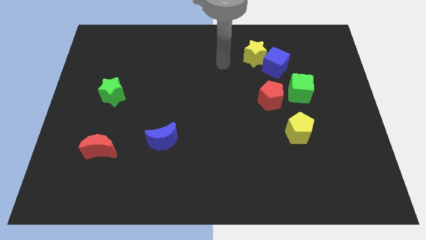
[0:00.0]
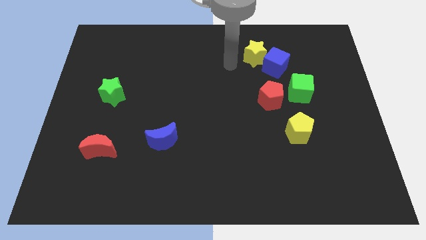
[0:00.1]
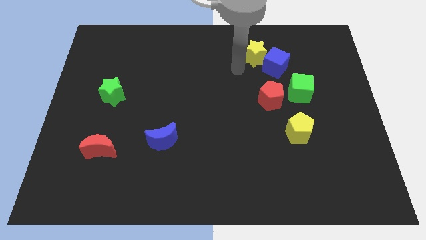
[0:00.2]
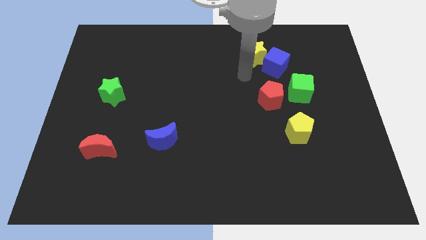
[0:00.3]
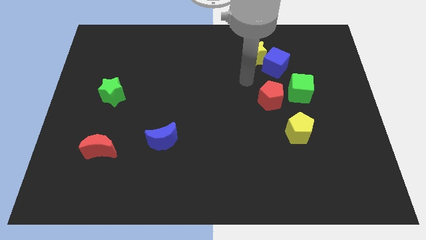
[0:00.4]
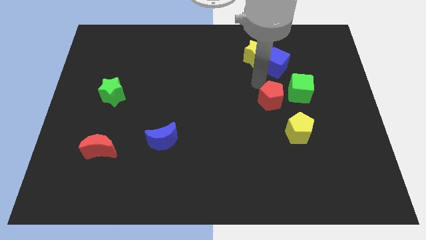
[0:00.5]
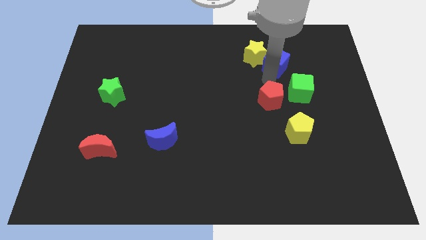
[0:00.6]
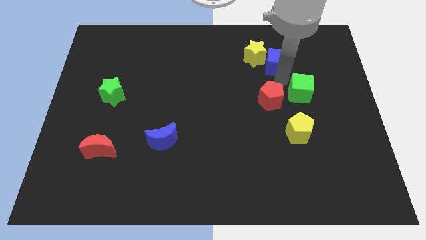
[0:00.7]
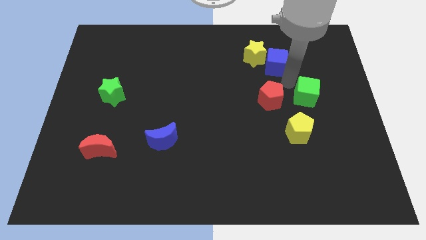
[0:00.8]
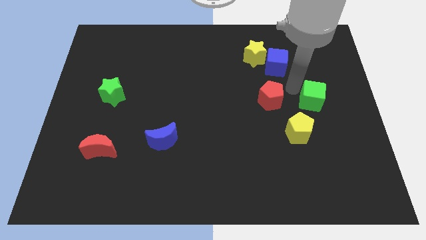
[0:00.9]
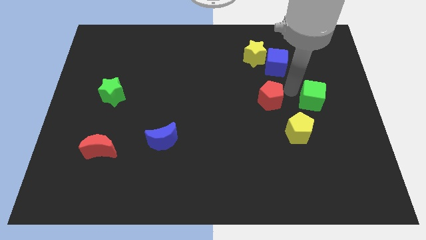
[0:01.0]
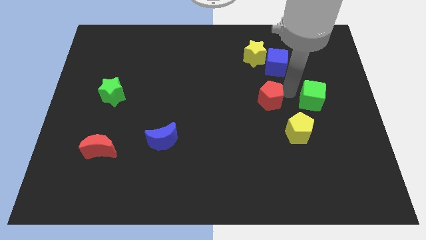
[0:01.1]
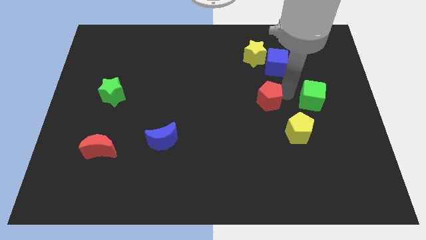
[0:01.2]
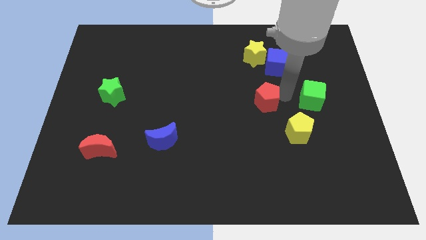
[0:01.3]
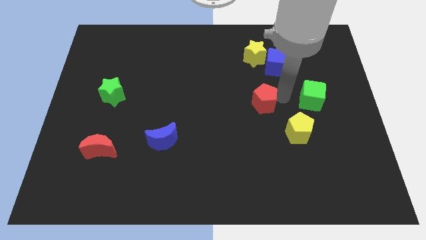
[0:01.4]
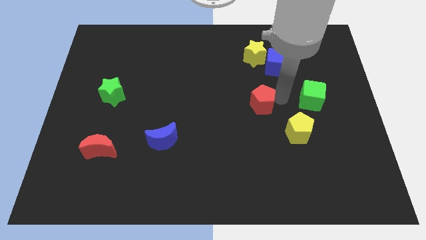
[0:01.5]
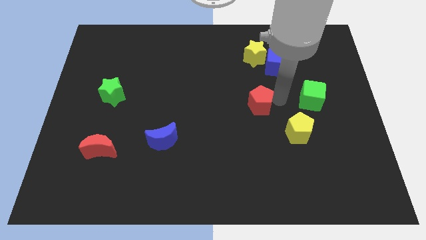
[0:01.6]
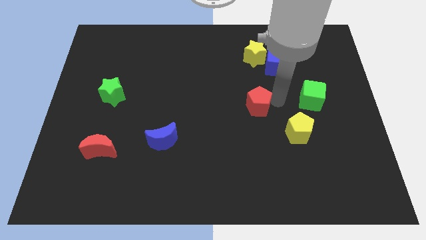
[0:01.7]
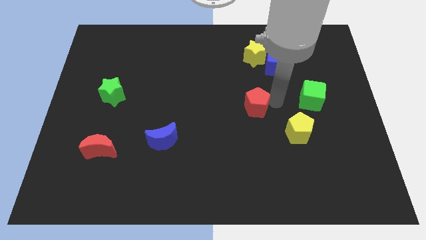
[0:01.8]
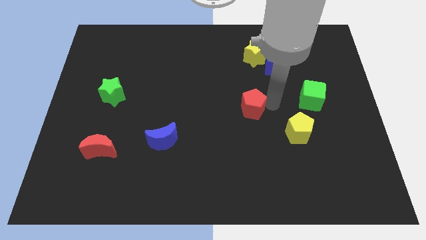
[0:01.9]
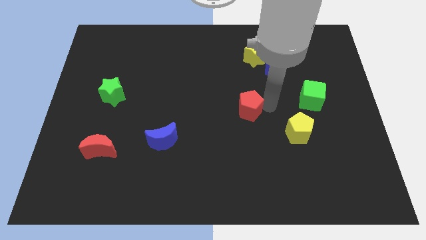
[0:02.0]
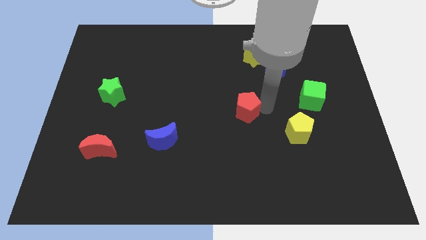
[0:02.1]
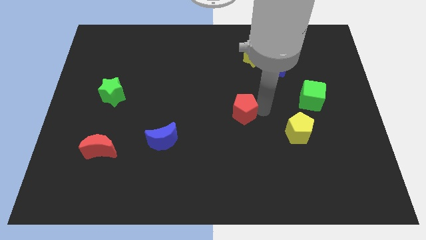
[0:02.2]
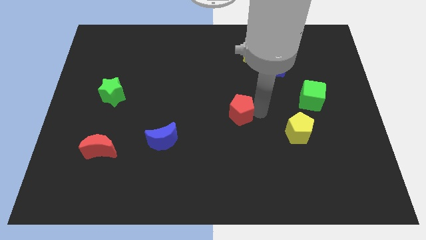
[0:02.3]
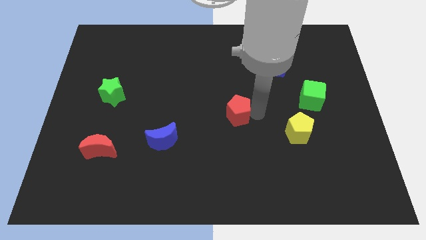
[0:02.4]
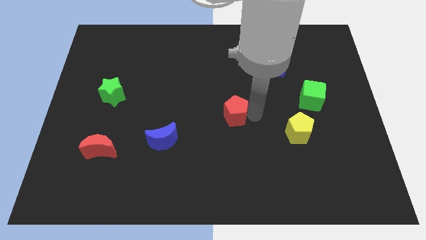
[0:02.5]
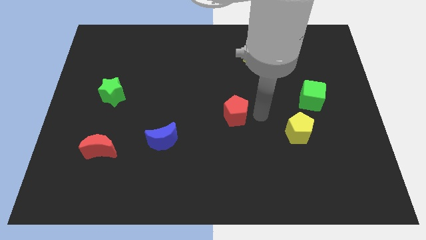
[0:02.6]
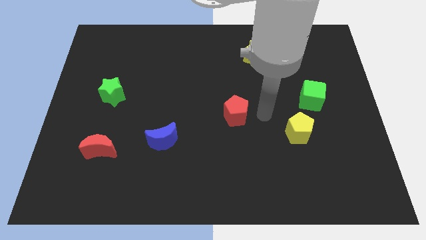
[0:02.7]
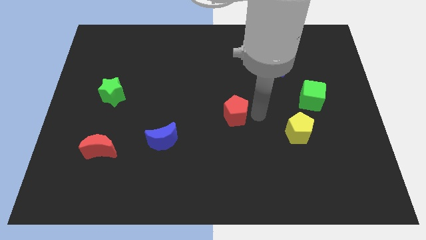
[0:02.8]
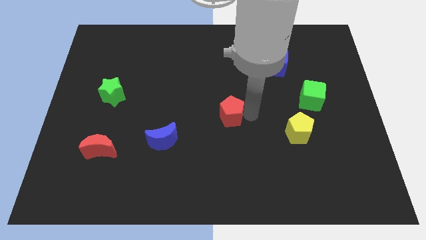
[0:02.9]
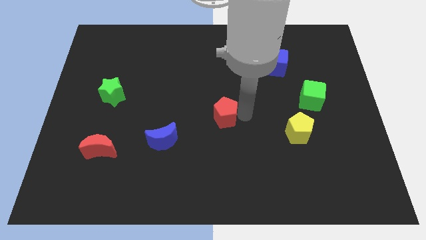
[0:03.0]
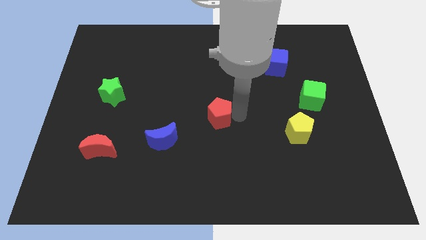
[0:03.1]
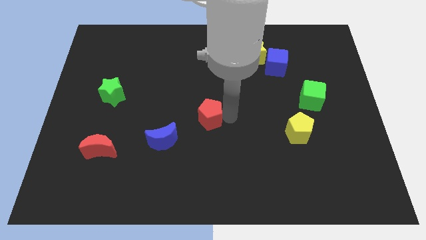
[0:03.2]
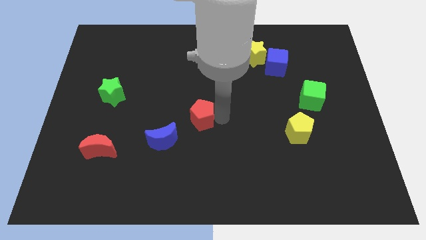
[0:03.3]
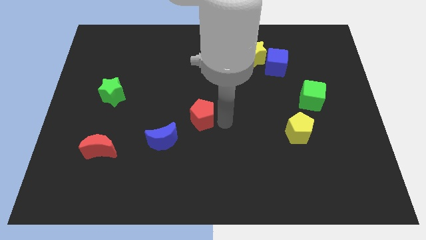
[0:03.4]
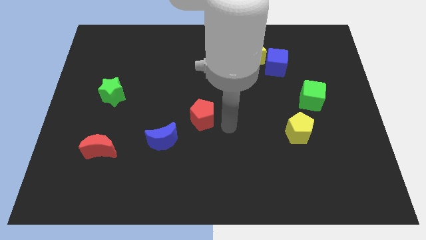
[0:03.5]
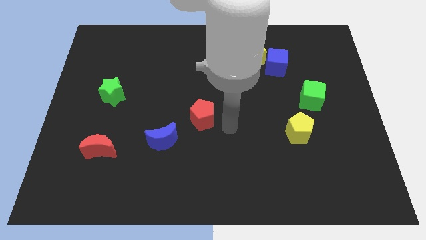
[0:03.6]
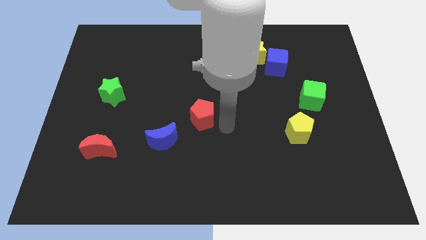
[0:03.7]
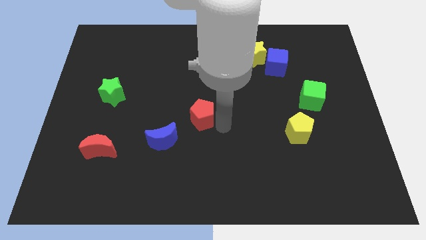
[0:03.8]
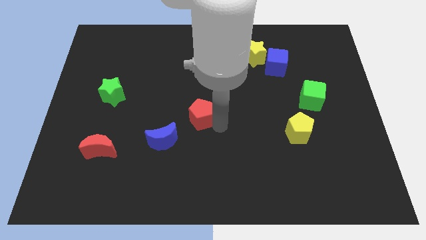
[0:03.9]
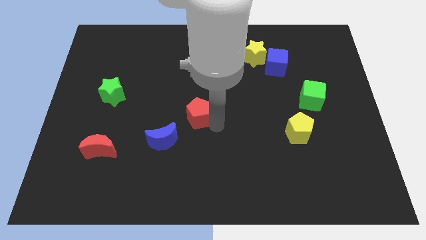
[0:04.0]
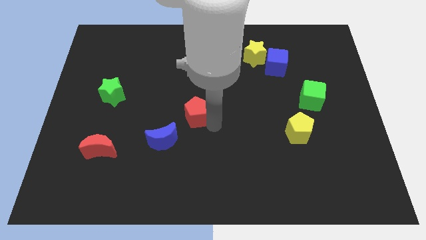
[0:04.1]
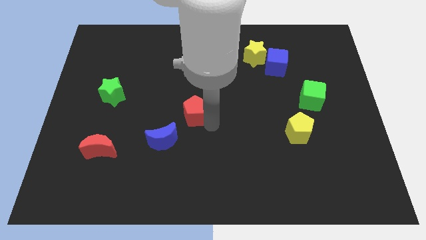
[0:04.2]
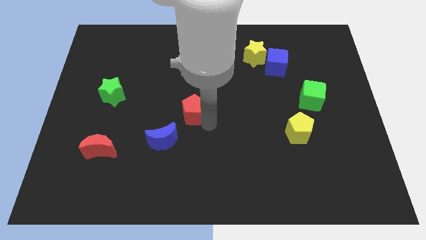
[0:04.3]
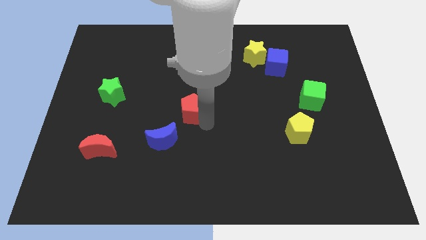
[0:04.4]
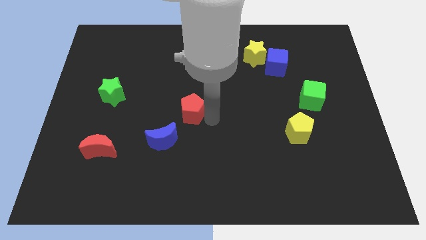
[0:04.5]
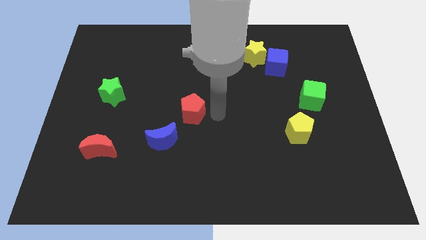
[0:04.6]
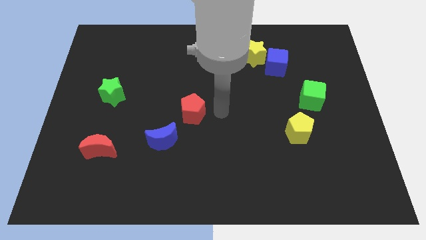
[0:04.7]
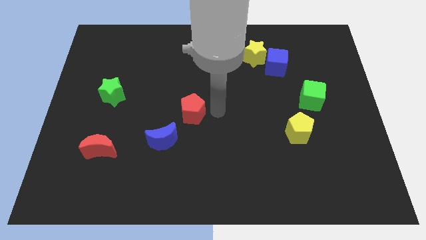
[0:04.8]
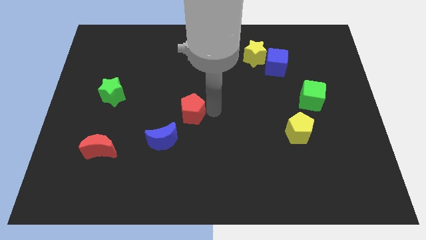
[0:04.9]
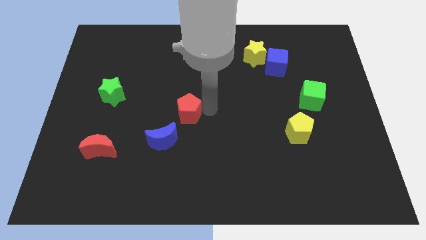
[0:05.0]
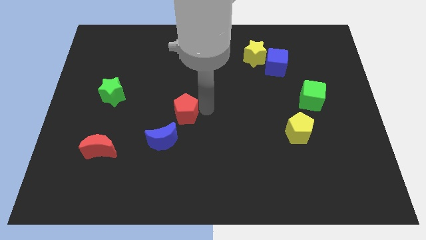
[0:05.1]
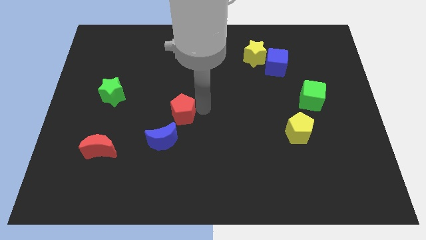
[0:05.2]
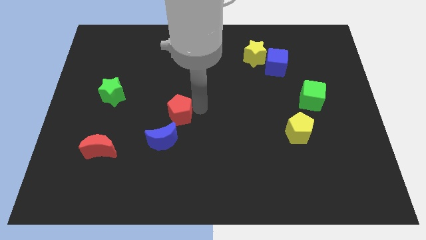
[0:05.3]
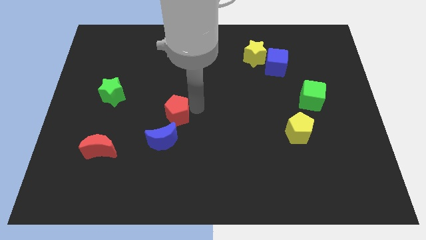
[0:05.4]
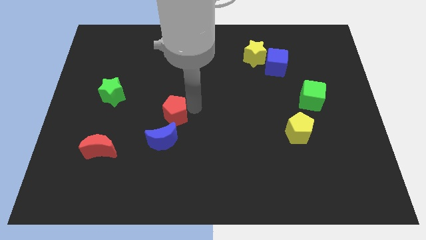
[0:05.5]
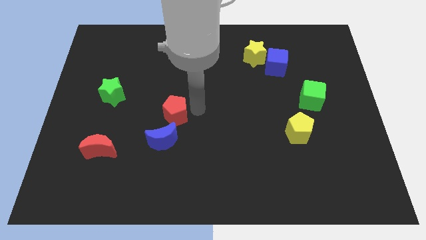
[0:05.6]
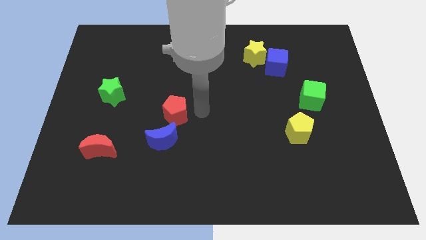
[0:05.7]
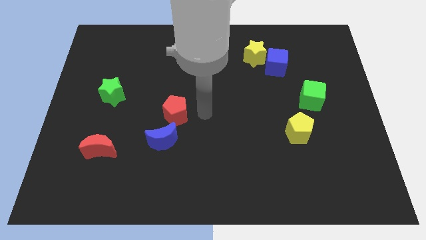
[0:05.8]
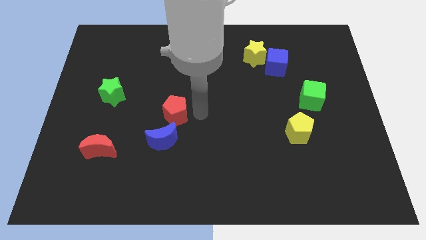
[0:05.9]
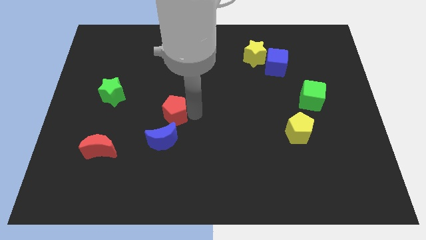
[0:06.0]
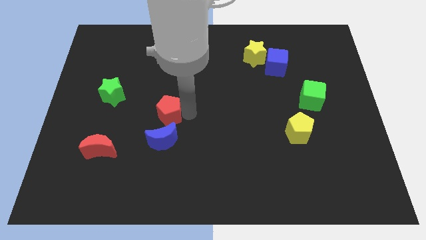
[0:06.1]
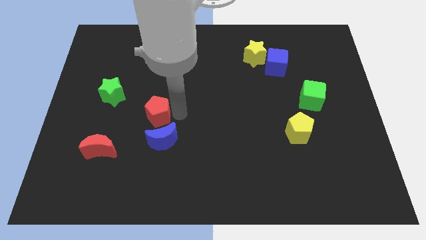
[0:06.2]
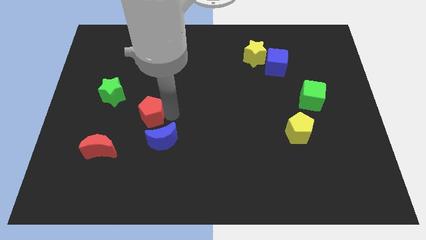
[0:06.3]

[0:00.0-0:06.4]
move the red pentagon to the bottom right side of the green star

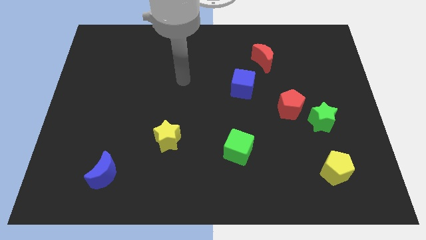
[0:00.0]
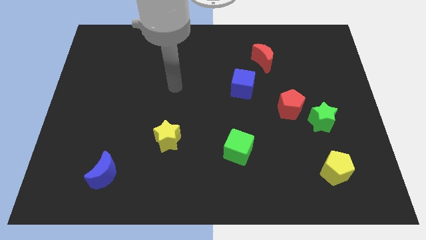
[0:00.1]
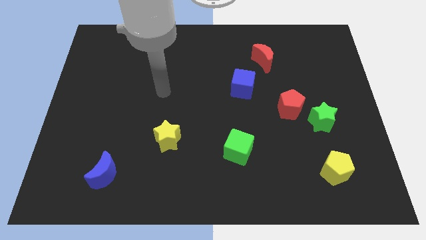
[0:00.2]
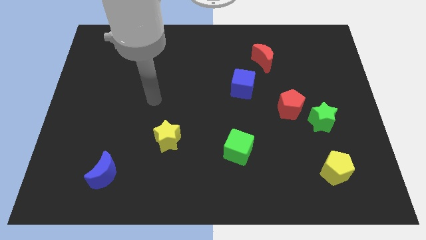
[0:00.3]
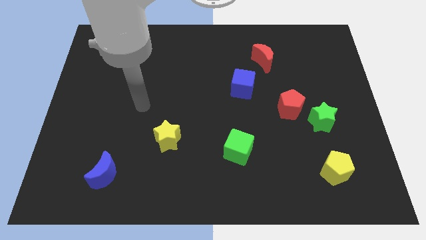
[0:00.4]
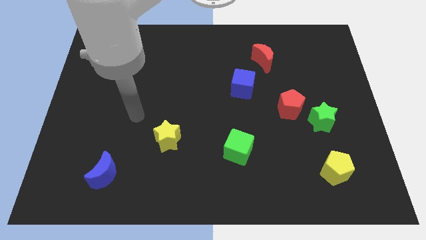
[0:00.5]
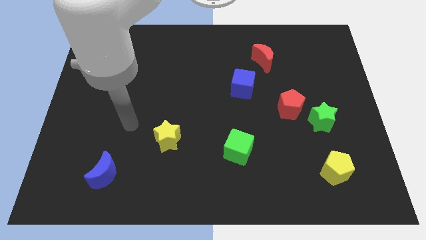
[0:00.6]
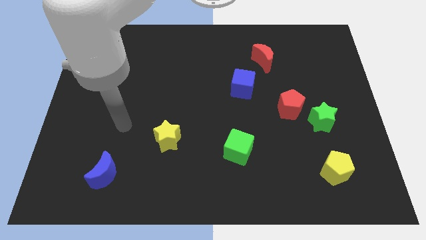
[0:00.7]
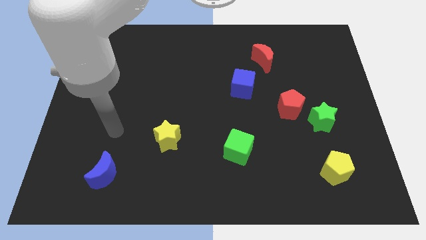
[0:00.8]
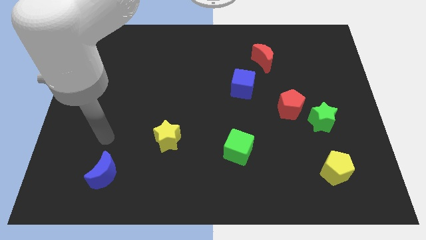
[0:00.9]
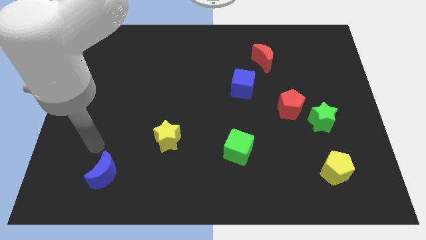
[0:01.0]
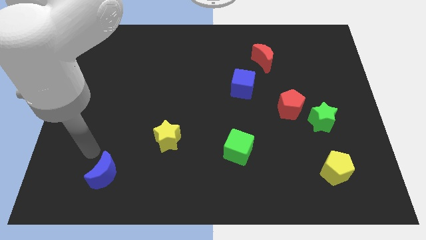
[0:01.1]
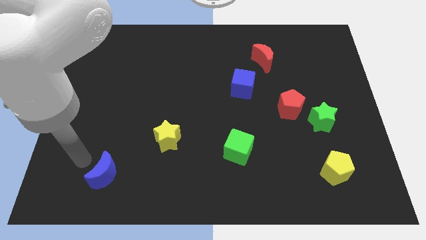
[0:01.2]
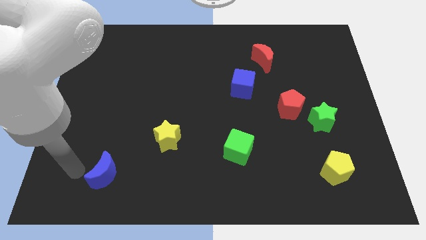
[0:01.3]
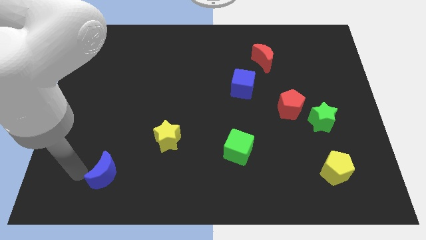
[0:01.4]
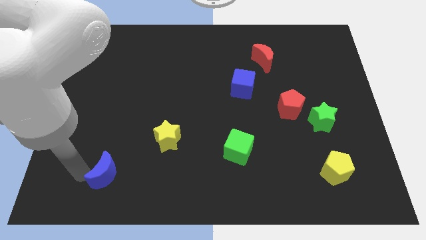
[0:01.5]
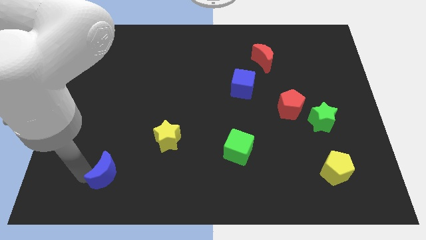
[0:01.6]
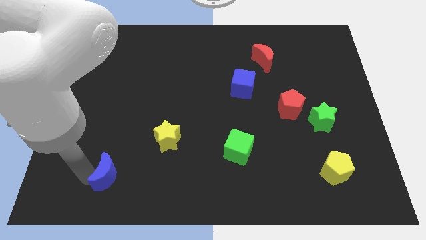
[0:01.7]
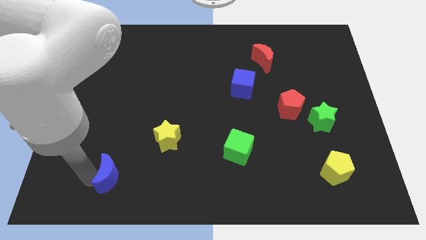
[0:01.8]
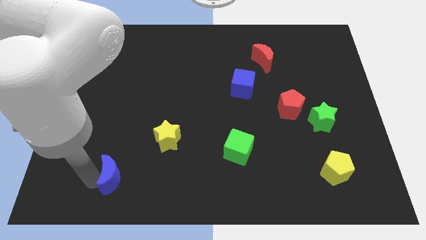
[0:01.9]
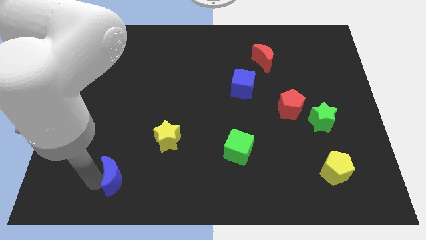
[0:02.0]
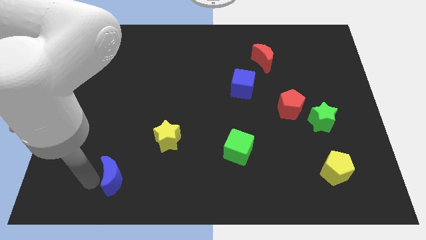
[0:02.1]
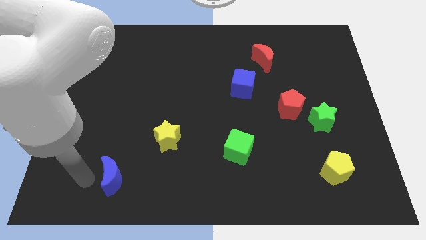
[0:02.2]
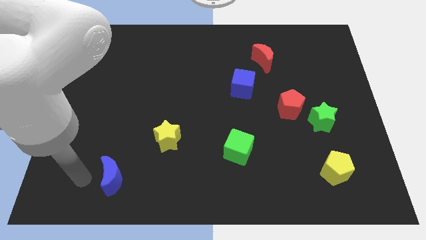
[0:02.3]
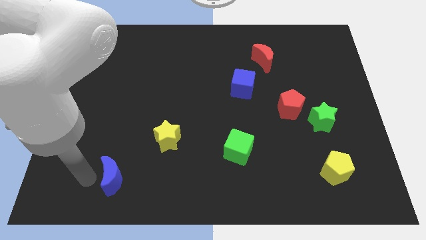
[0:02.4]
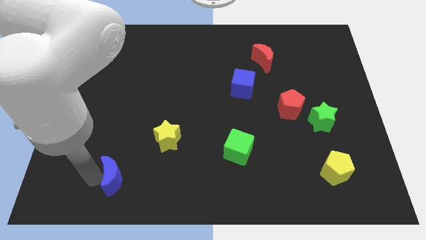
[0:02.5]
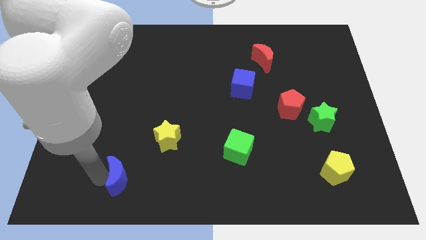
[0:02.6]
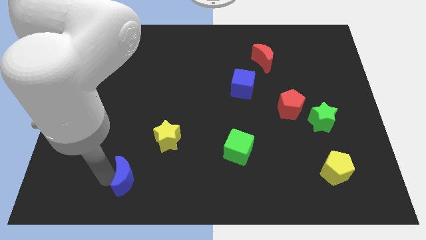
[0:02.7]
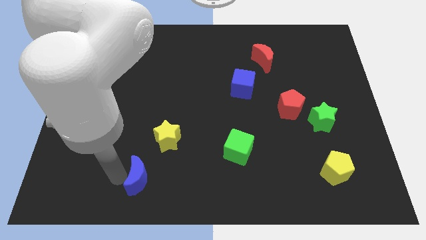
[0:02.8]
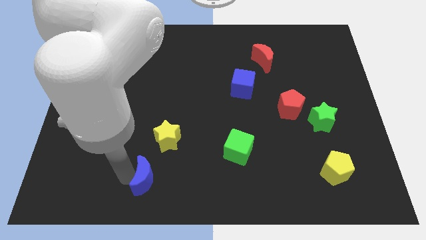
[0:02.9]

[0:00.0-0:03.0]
slide the blue moon to the bottom of the yellow star
